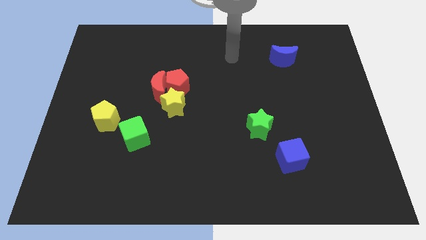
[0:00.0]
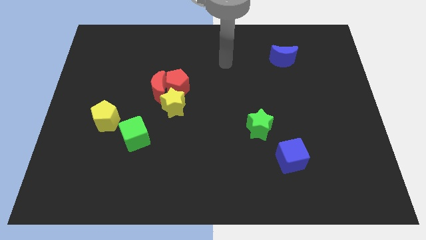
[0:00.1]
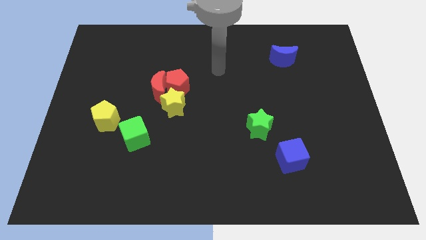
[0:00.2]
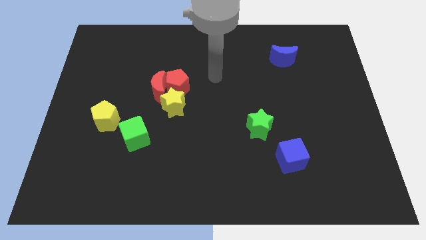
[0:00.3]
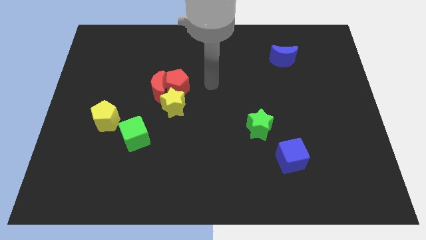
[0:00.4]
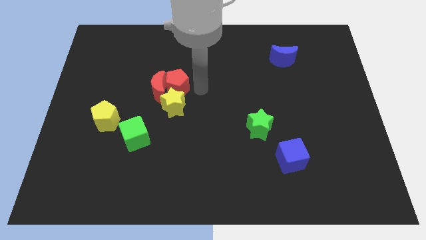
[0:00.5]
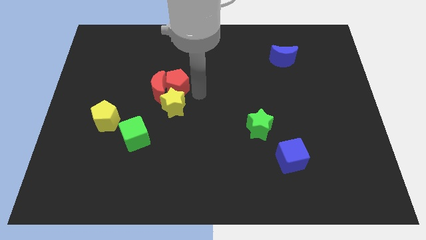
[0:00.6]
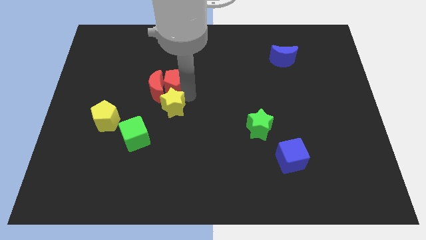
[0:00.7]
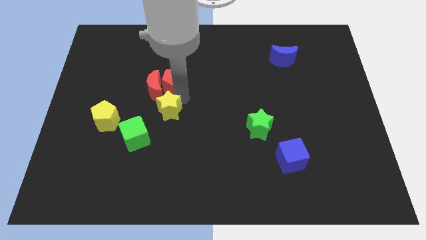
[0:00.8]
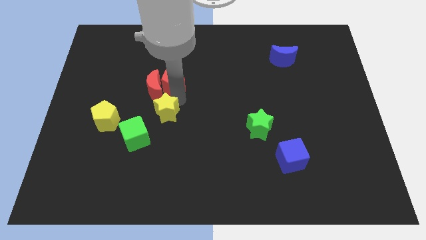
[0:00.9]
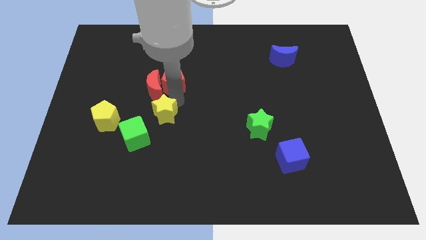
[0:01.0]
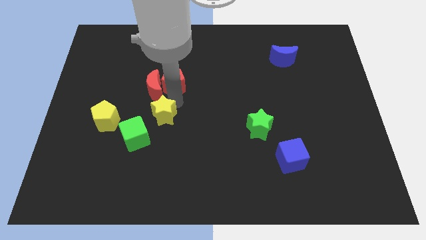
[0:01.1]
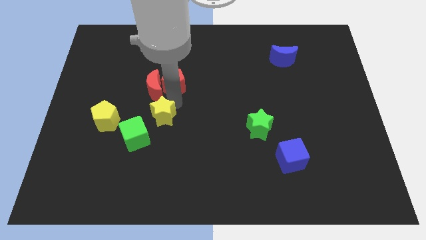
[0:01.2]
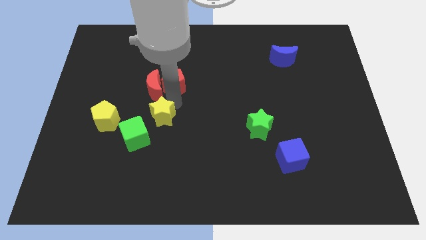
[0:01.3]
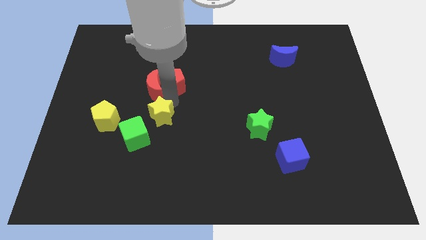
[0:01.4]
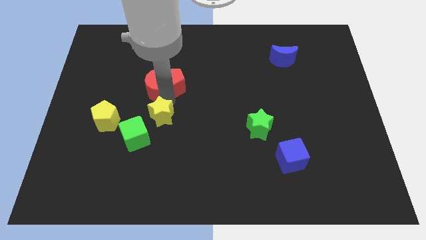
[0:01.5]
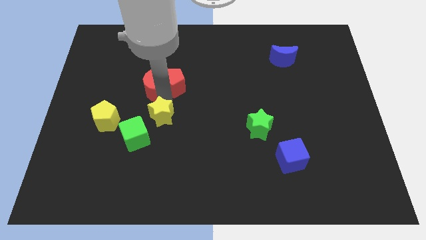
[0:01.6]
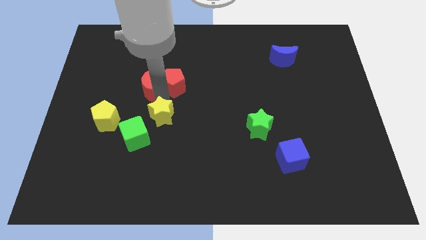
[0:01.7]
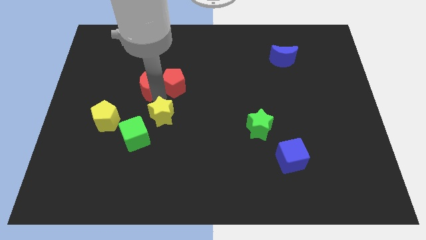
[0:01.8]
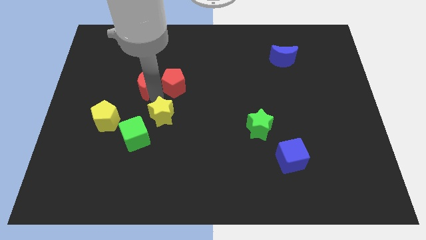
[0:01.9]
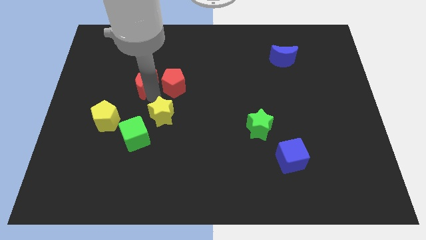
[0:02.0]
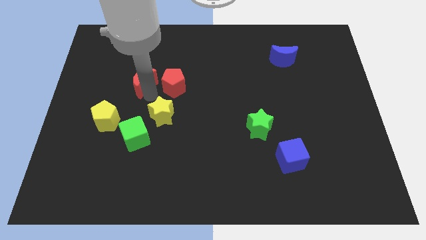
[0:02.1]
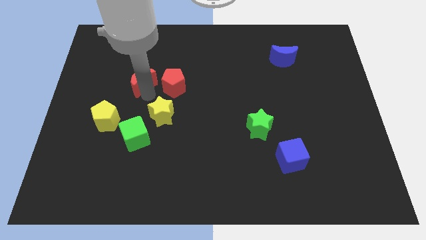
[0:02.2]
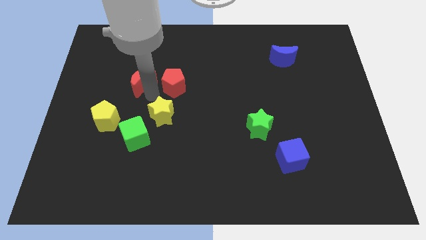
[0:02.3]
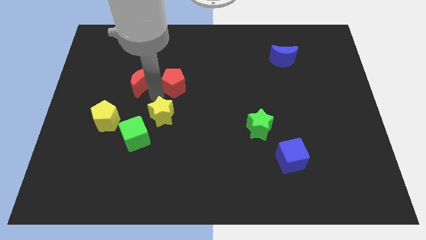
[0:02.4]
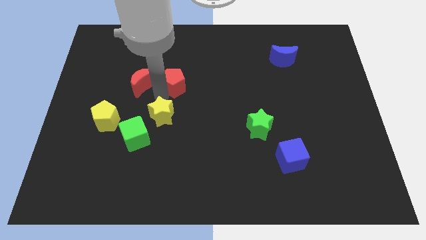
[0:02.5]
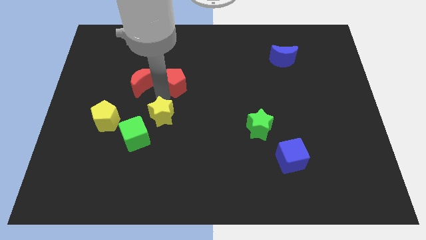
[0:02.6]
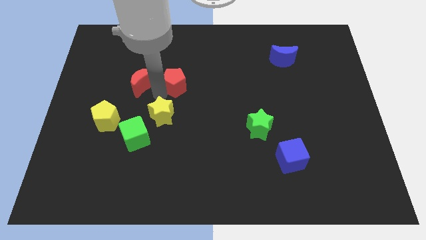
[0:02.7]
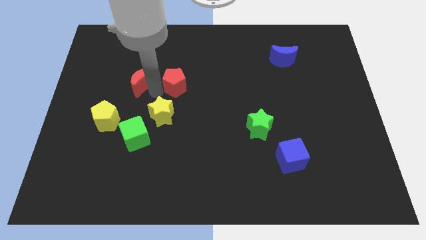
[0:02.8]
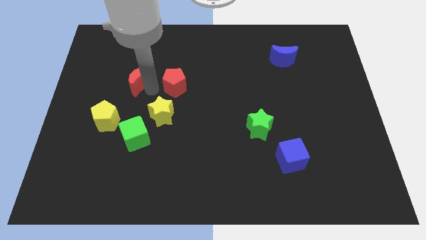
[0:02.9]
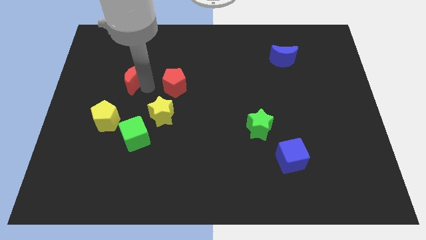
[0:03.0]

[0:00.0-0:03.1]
separate the red moon from the red pentagon and yellow star

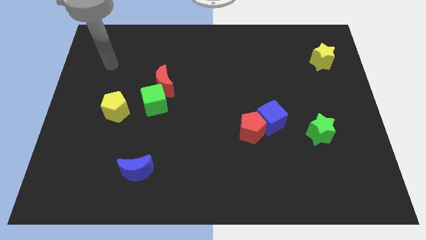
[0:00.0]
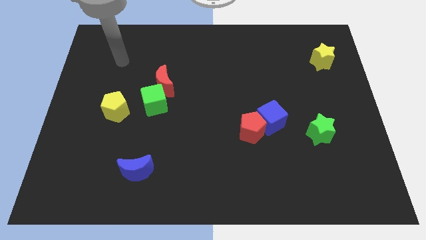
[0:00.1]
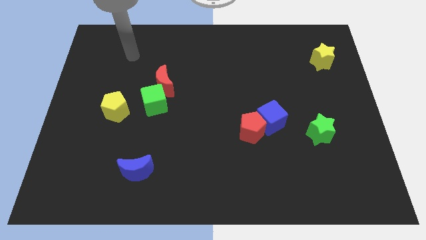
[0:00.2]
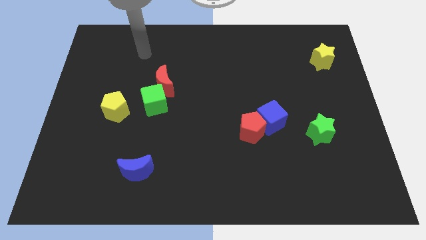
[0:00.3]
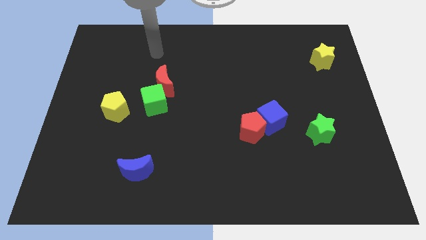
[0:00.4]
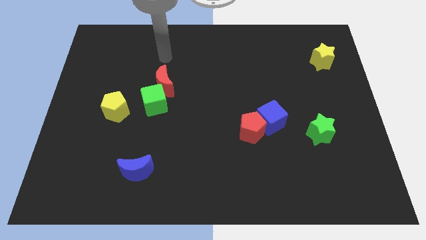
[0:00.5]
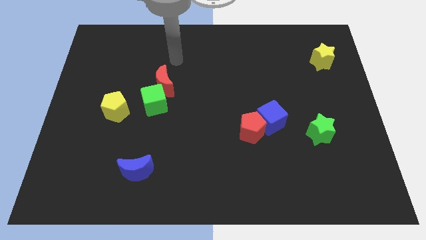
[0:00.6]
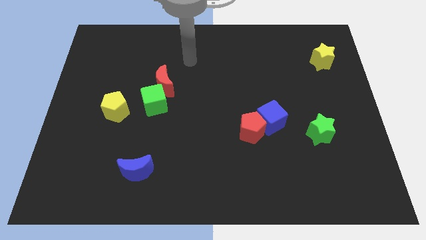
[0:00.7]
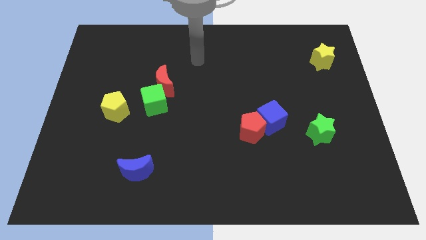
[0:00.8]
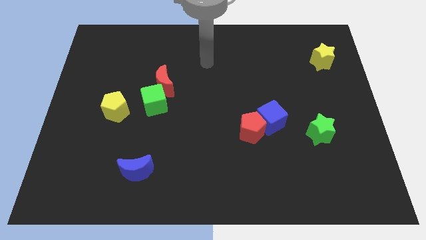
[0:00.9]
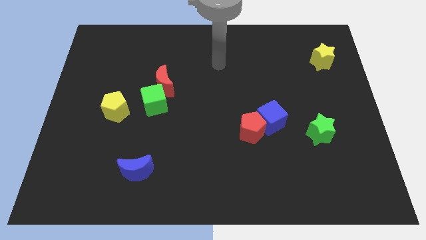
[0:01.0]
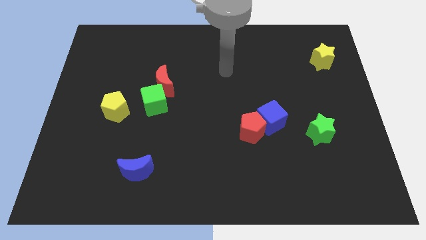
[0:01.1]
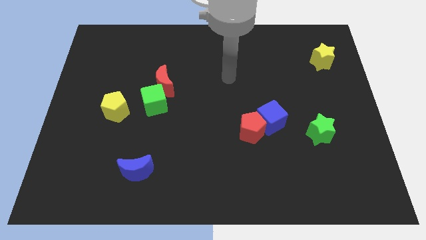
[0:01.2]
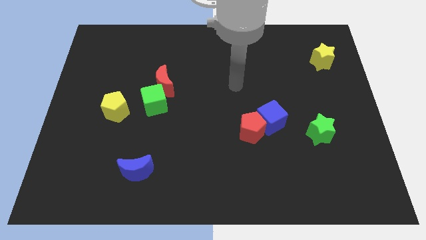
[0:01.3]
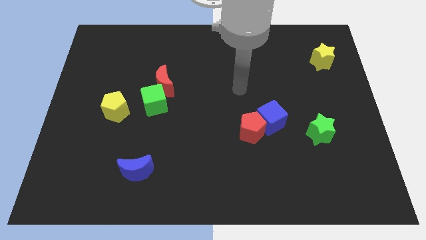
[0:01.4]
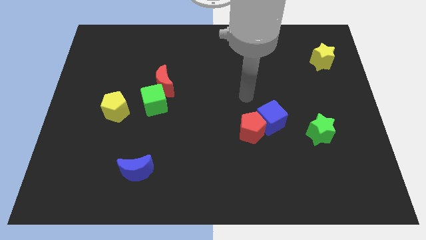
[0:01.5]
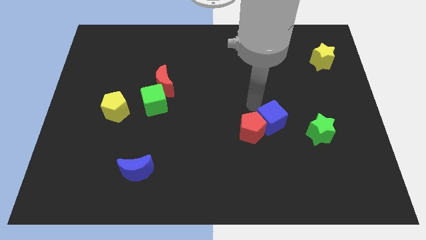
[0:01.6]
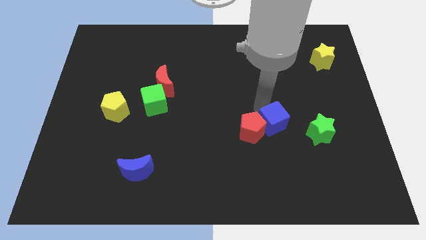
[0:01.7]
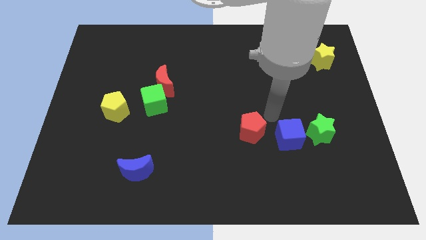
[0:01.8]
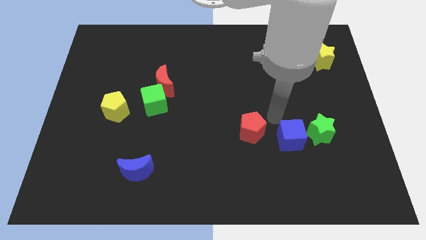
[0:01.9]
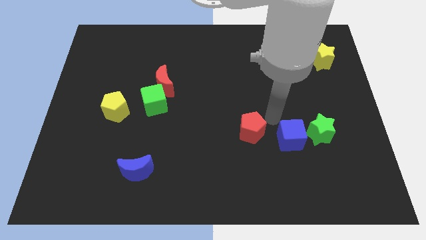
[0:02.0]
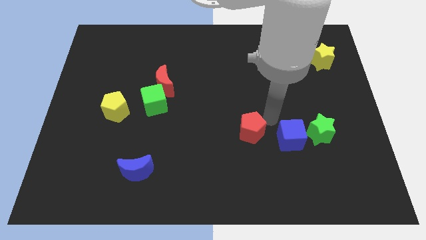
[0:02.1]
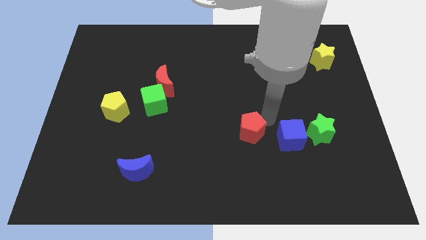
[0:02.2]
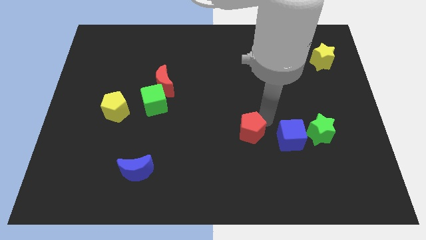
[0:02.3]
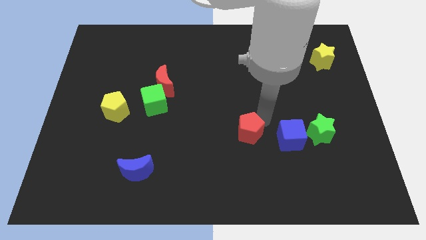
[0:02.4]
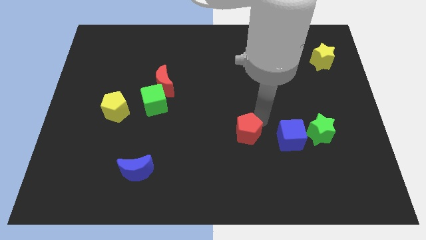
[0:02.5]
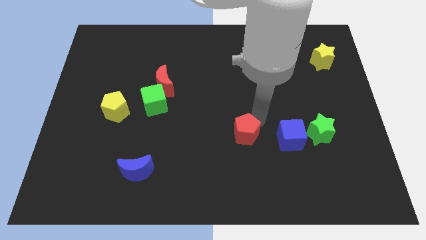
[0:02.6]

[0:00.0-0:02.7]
move the red pentagon away from the blue cube

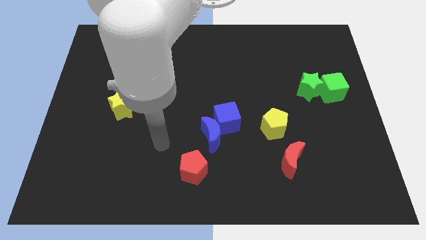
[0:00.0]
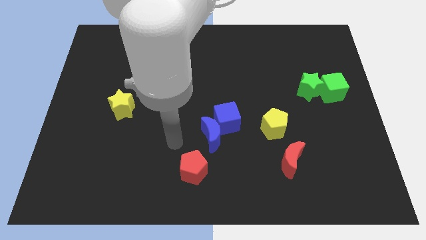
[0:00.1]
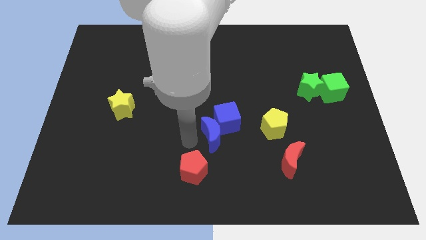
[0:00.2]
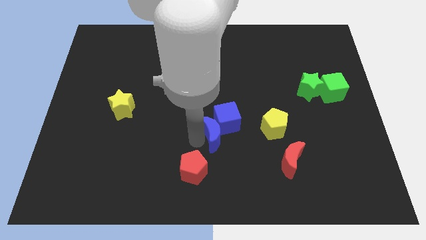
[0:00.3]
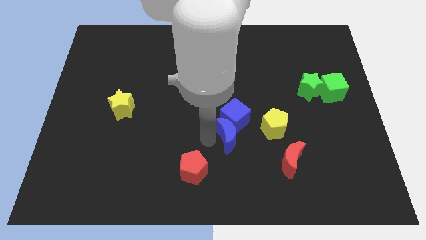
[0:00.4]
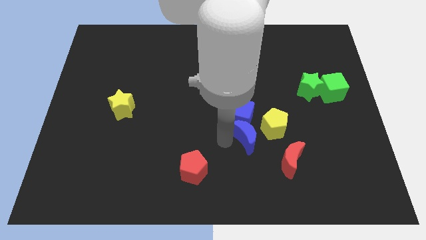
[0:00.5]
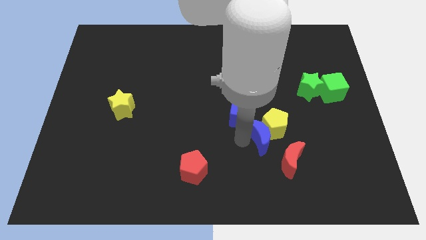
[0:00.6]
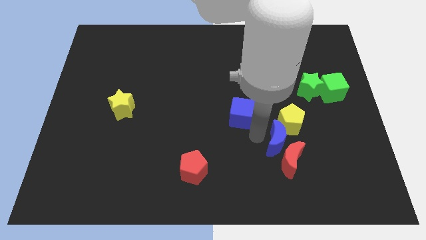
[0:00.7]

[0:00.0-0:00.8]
separate the blue cube from the blue moon

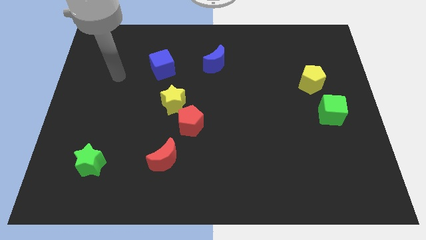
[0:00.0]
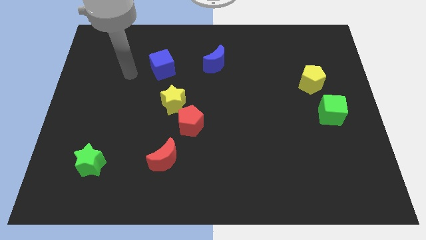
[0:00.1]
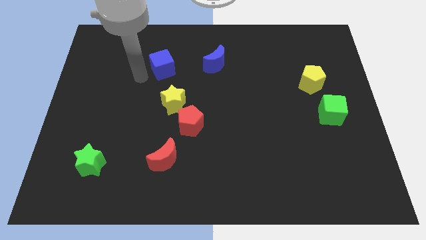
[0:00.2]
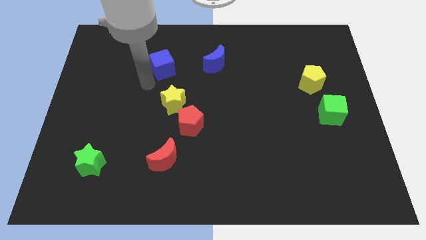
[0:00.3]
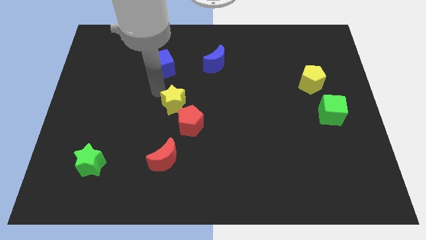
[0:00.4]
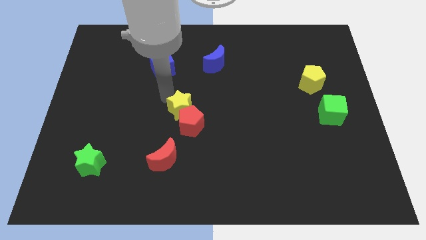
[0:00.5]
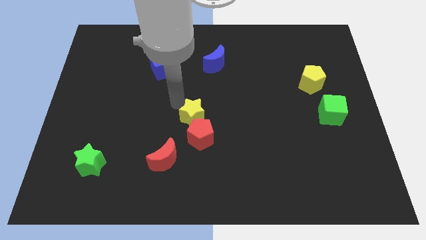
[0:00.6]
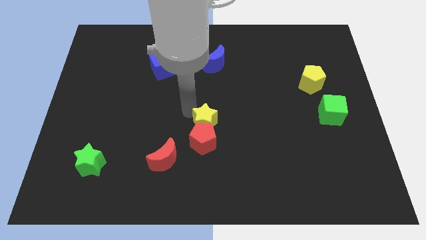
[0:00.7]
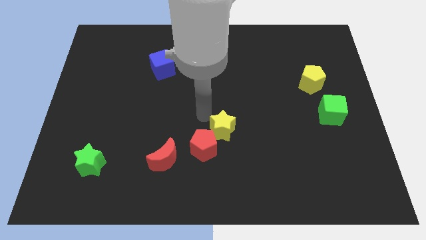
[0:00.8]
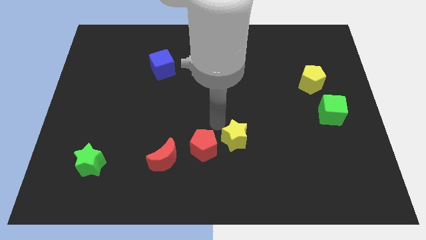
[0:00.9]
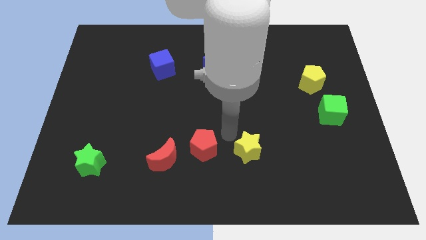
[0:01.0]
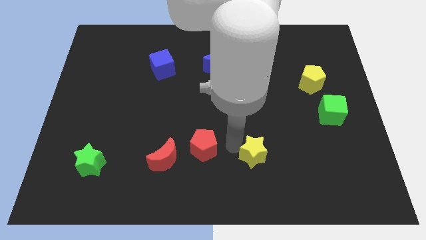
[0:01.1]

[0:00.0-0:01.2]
pull the red pentagon apart from the yellow star

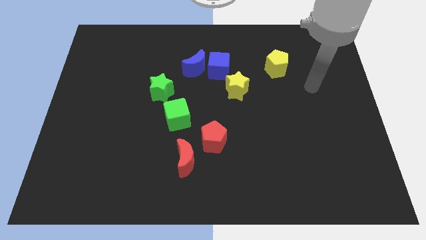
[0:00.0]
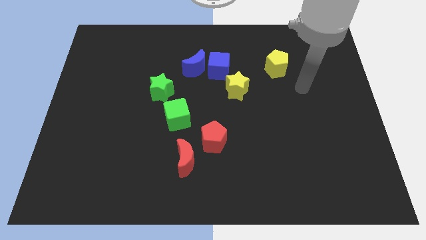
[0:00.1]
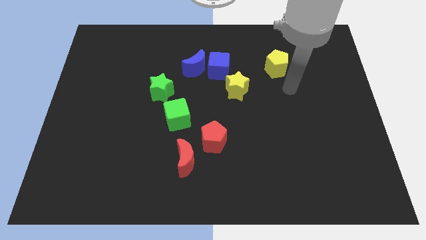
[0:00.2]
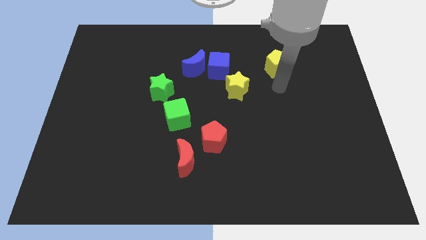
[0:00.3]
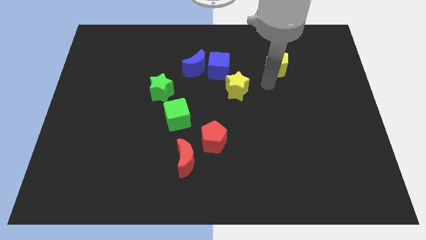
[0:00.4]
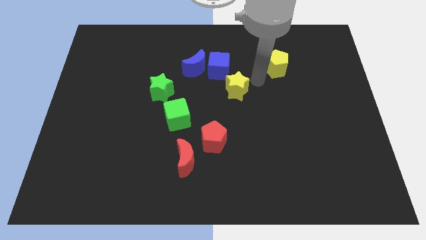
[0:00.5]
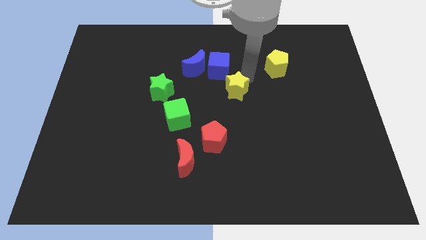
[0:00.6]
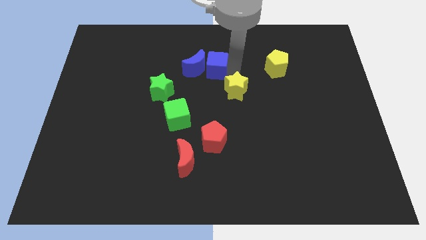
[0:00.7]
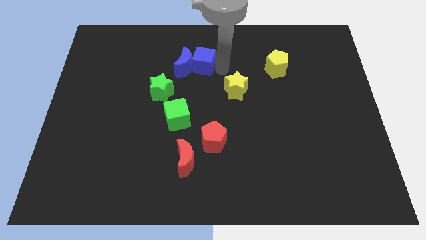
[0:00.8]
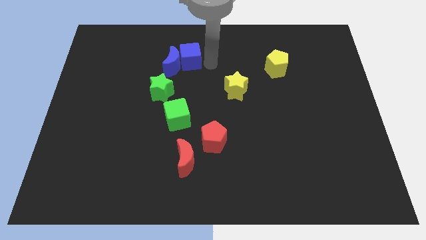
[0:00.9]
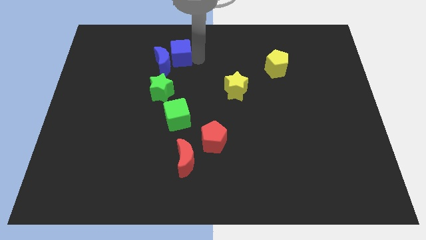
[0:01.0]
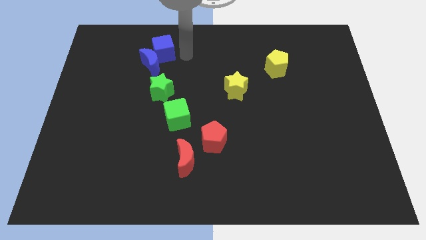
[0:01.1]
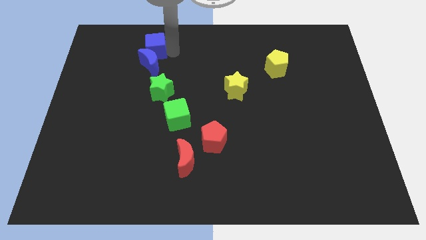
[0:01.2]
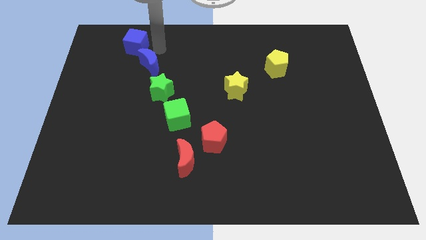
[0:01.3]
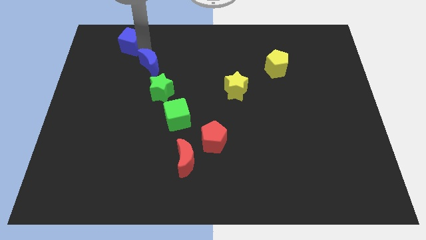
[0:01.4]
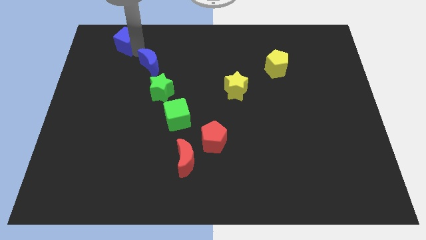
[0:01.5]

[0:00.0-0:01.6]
separate the blue moon from the blue cube
